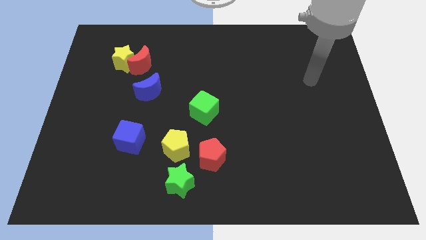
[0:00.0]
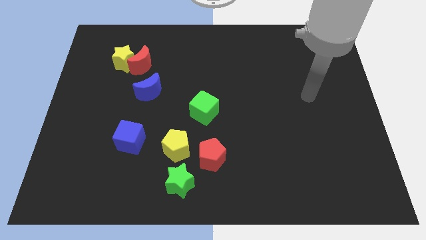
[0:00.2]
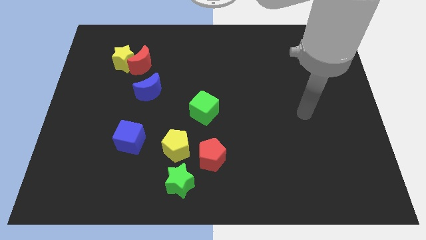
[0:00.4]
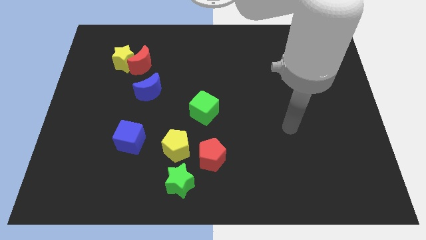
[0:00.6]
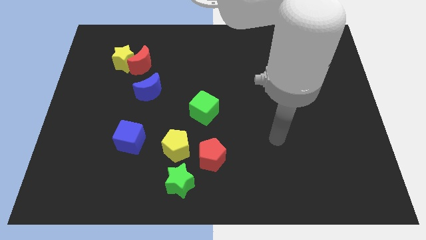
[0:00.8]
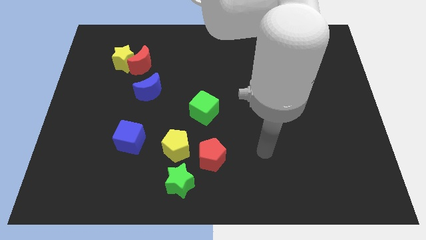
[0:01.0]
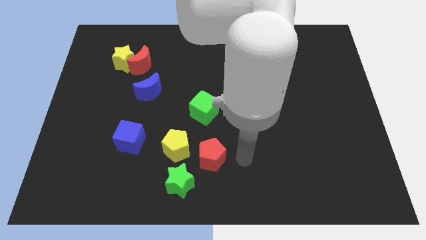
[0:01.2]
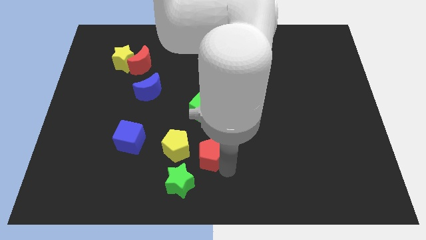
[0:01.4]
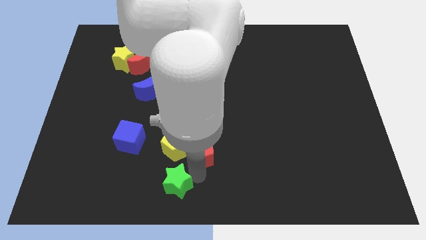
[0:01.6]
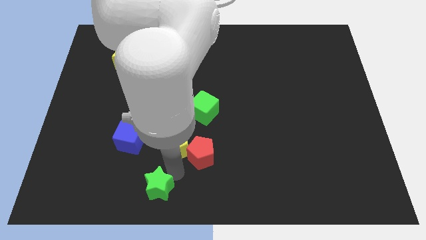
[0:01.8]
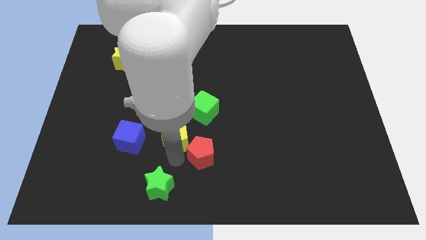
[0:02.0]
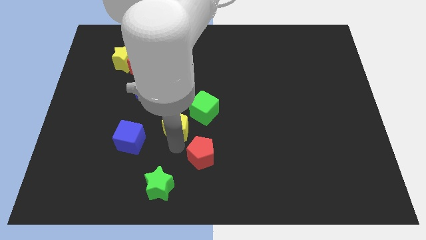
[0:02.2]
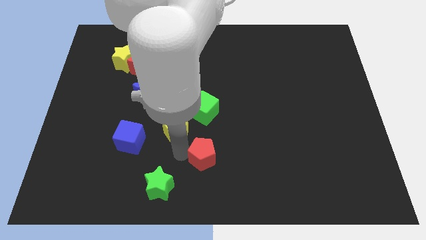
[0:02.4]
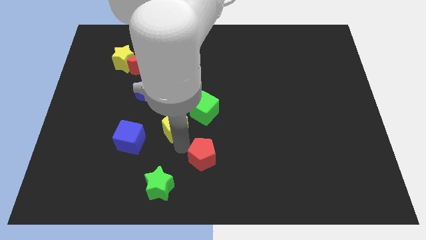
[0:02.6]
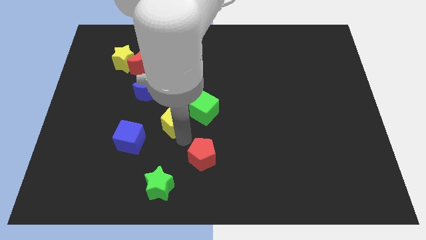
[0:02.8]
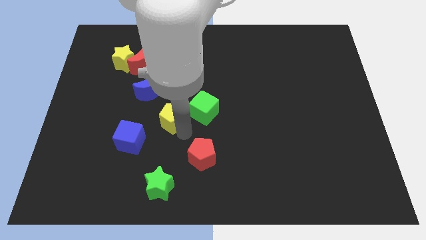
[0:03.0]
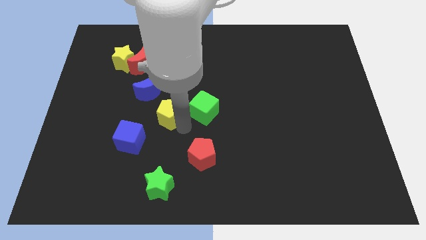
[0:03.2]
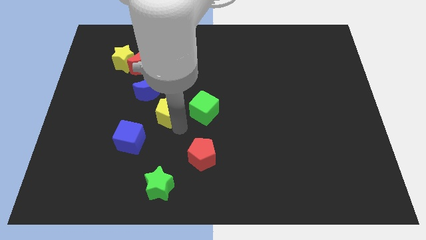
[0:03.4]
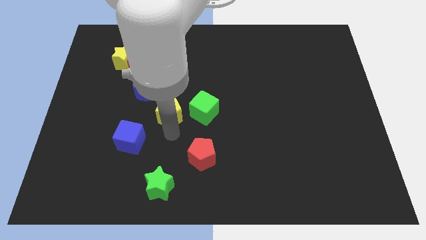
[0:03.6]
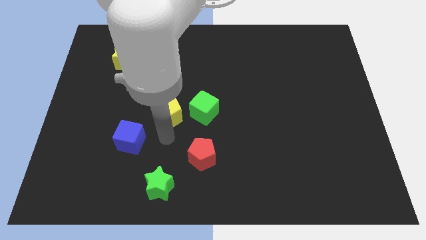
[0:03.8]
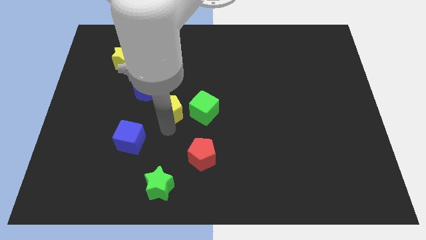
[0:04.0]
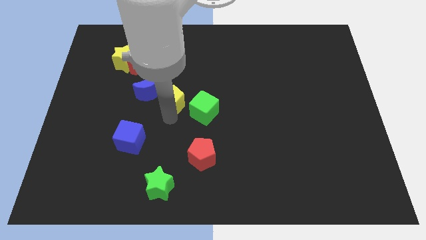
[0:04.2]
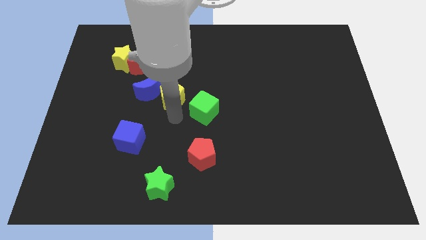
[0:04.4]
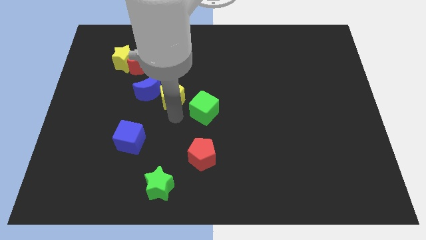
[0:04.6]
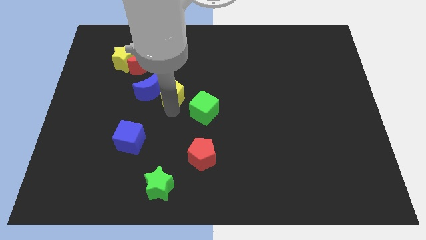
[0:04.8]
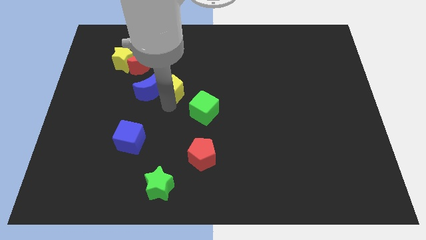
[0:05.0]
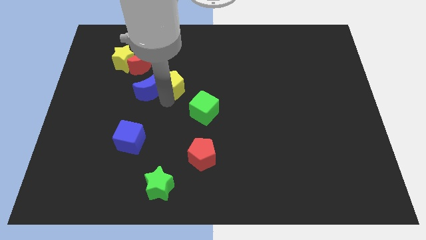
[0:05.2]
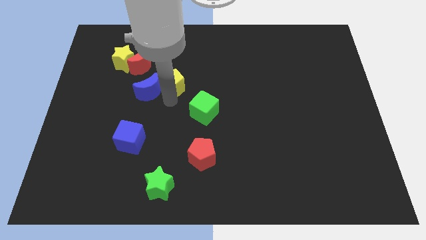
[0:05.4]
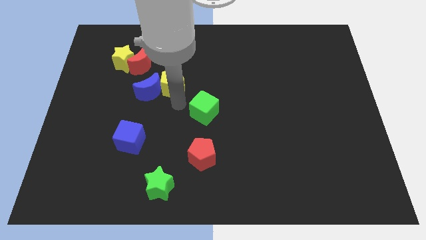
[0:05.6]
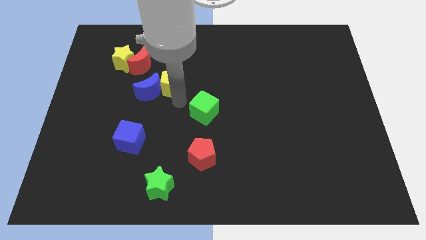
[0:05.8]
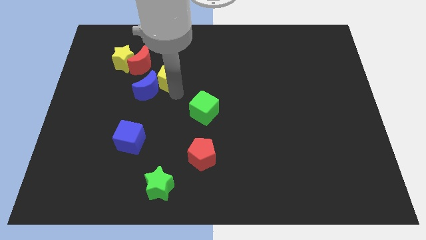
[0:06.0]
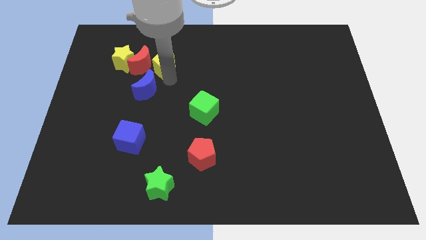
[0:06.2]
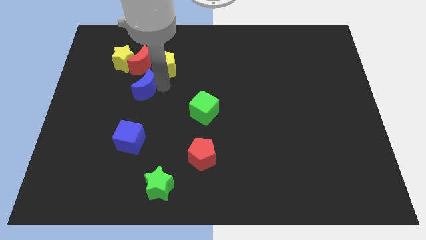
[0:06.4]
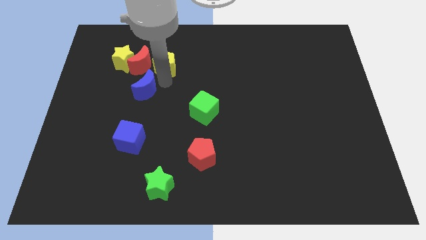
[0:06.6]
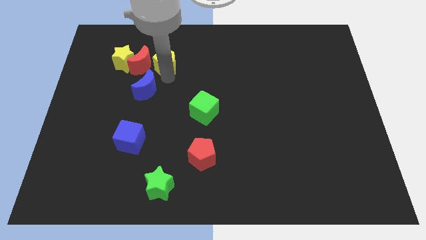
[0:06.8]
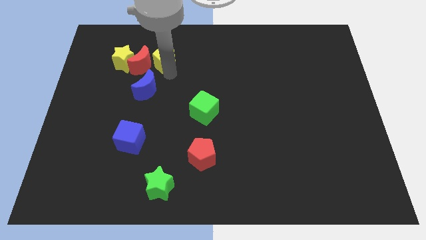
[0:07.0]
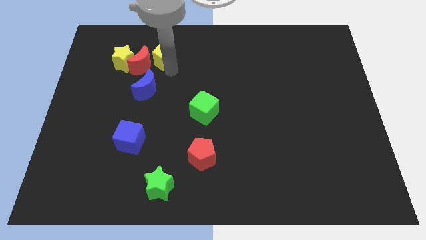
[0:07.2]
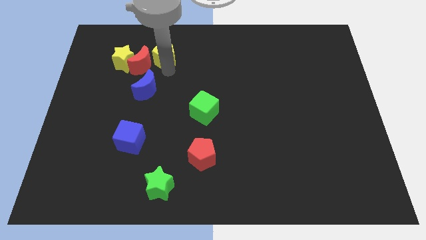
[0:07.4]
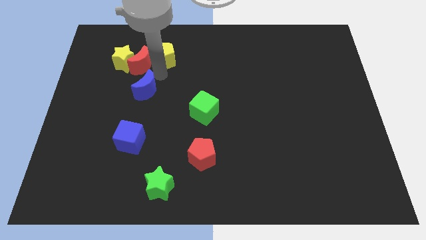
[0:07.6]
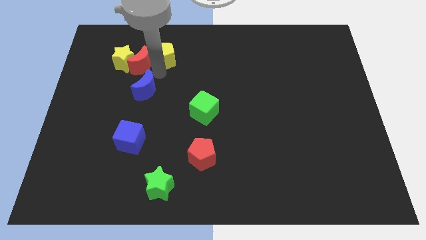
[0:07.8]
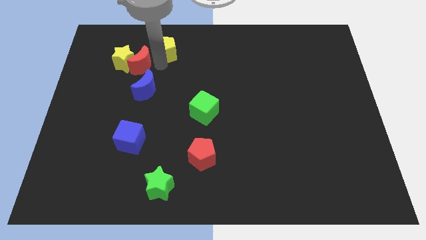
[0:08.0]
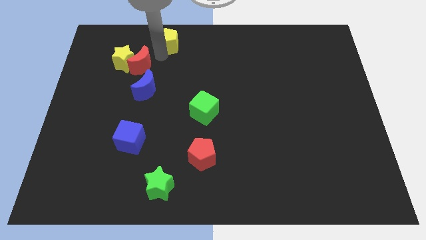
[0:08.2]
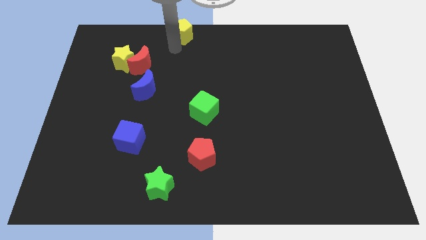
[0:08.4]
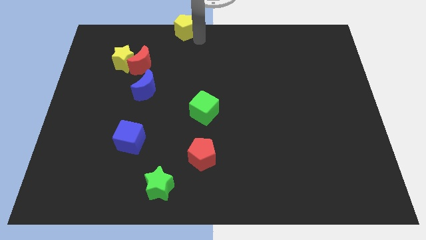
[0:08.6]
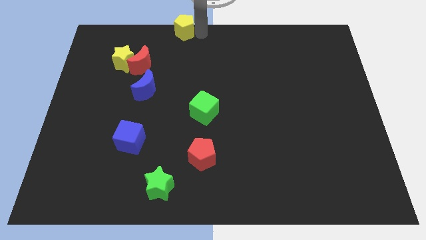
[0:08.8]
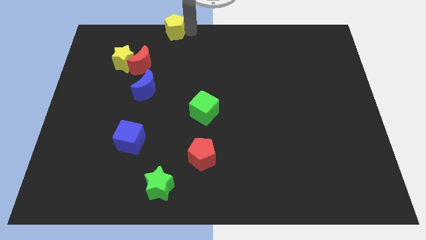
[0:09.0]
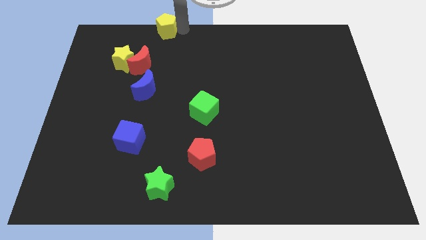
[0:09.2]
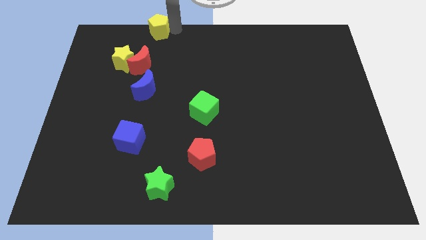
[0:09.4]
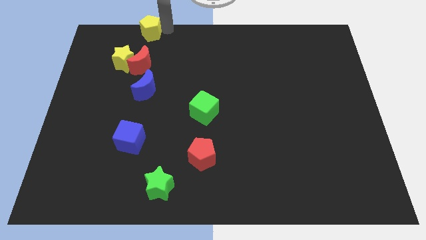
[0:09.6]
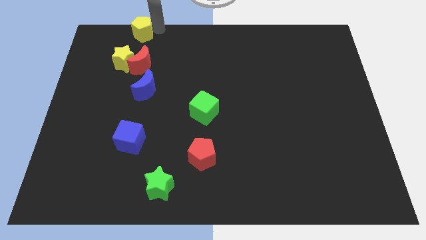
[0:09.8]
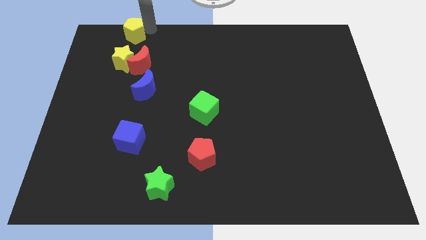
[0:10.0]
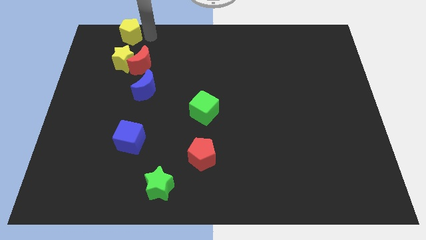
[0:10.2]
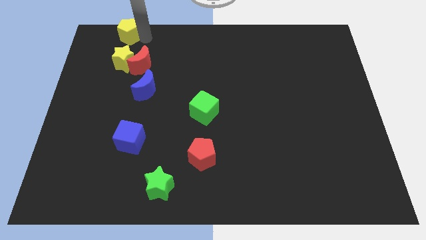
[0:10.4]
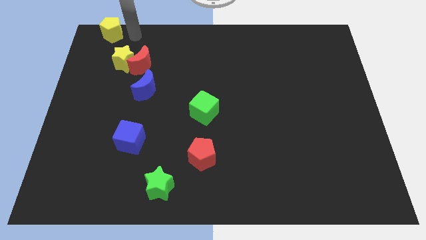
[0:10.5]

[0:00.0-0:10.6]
move the yellow pentagon to the top left of the board
